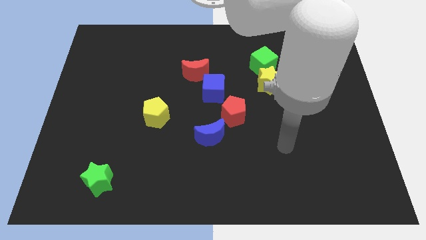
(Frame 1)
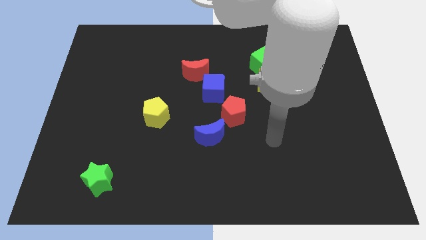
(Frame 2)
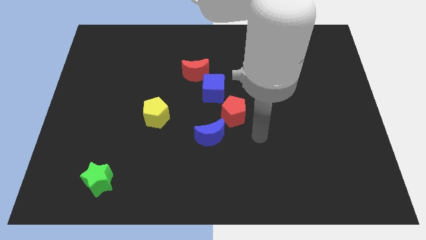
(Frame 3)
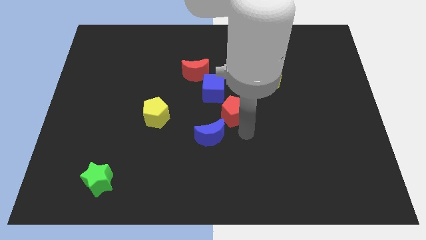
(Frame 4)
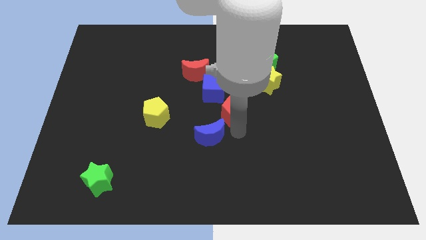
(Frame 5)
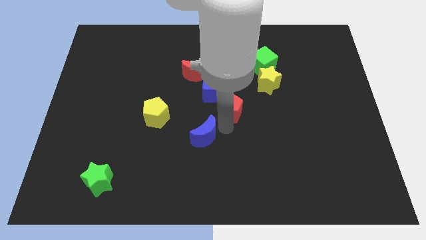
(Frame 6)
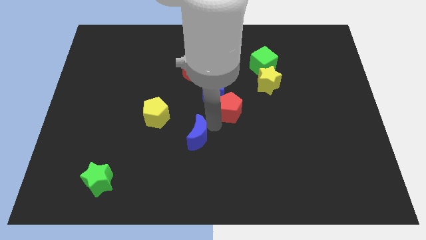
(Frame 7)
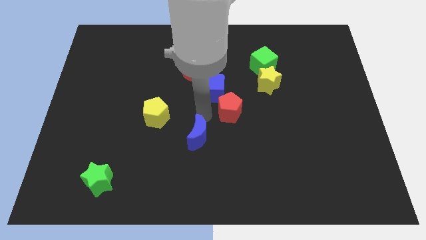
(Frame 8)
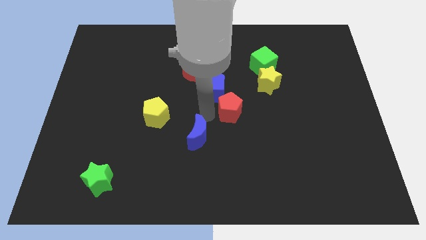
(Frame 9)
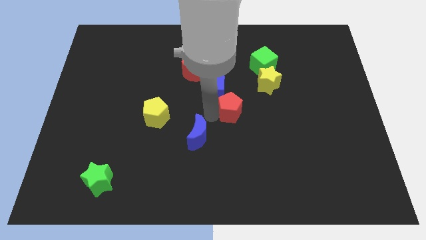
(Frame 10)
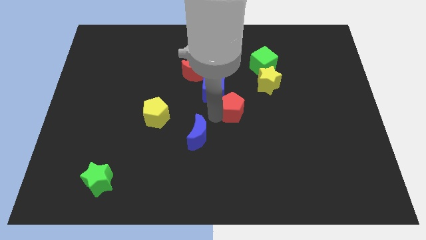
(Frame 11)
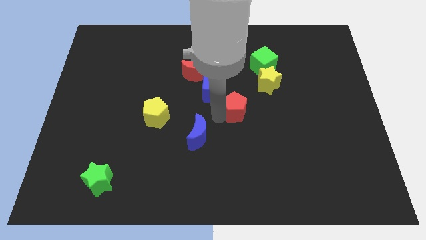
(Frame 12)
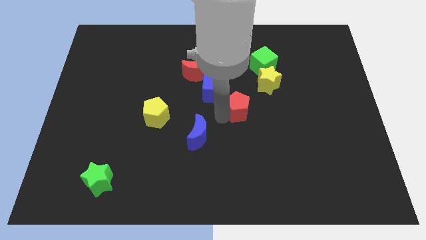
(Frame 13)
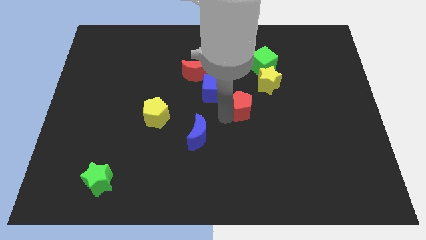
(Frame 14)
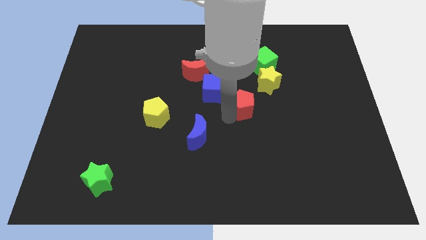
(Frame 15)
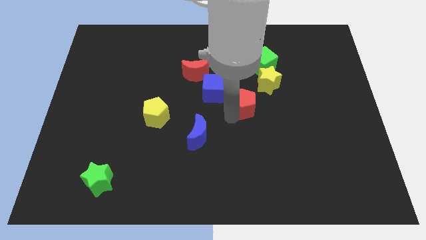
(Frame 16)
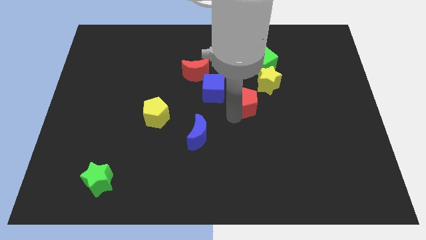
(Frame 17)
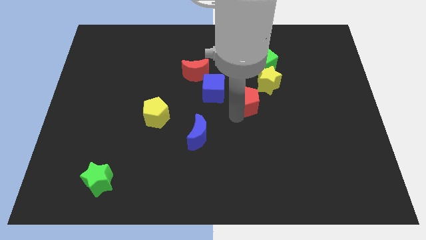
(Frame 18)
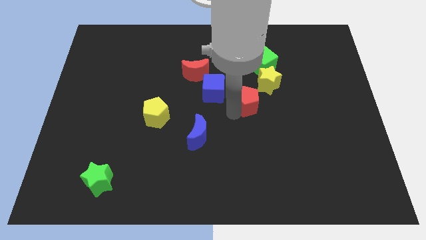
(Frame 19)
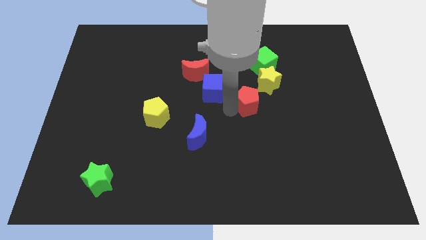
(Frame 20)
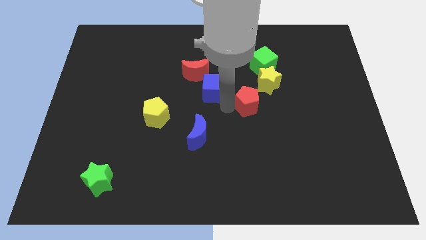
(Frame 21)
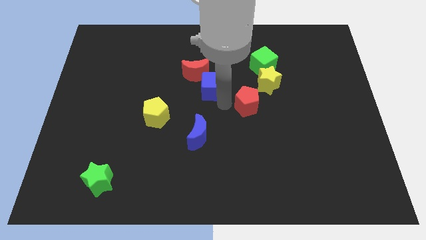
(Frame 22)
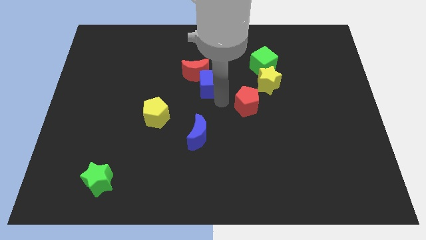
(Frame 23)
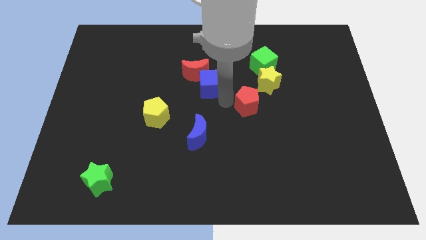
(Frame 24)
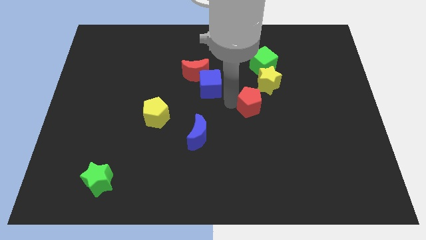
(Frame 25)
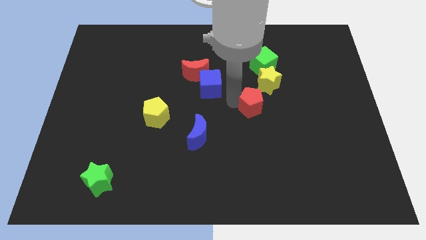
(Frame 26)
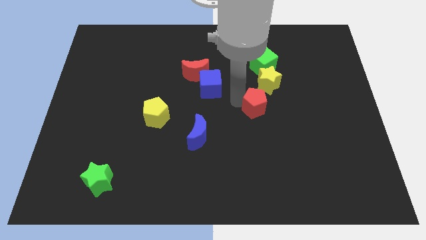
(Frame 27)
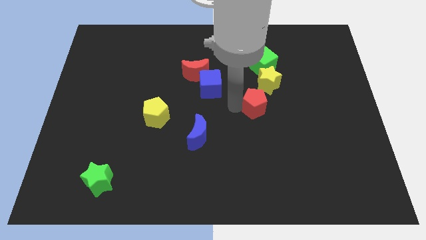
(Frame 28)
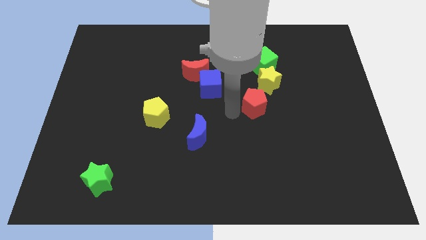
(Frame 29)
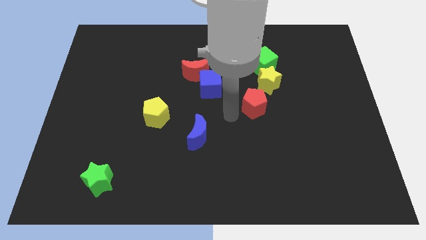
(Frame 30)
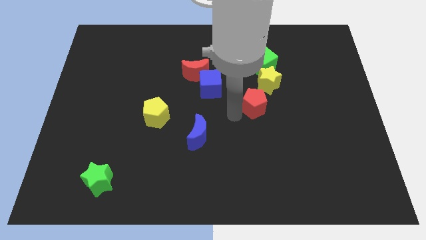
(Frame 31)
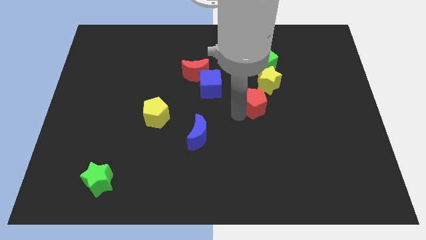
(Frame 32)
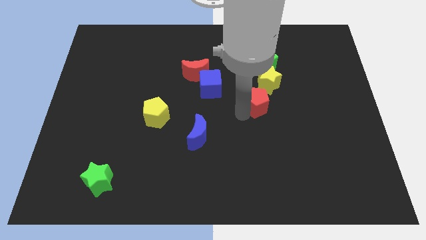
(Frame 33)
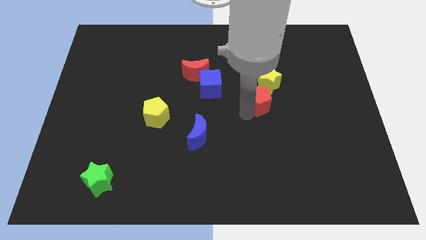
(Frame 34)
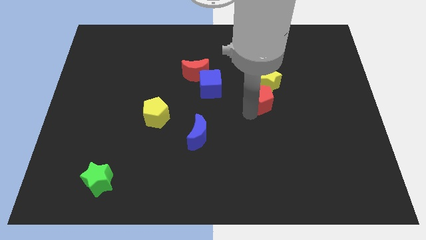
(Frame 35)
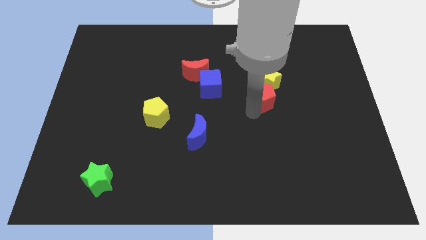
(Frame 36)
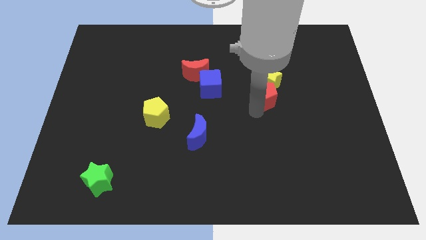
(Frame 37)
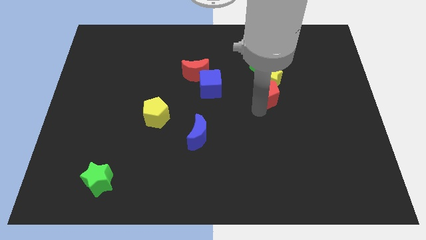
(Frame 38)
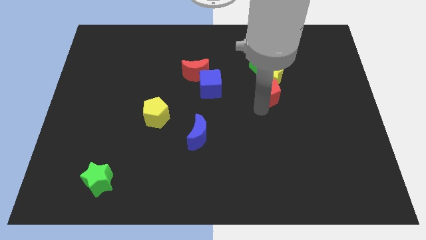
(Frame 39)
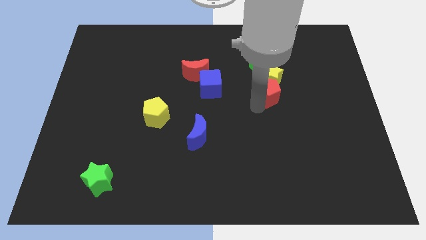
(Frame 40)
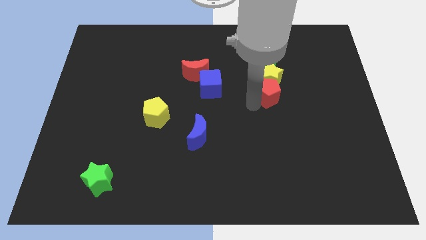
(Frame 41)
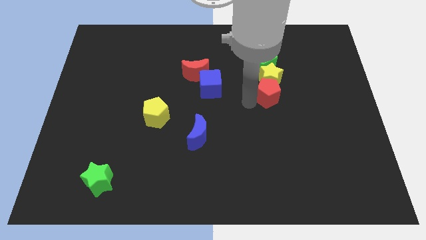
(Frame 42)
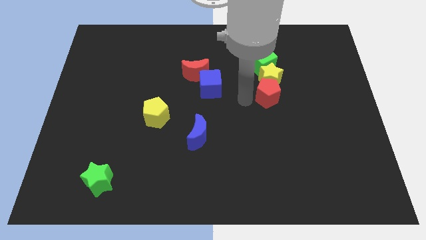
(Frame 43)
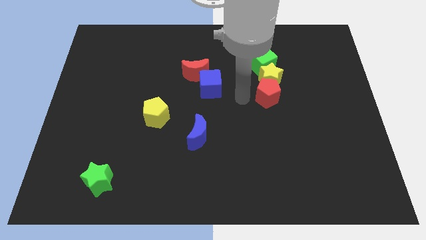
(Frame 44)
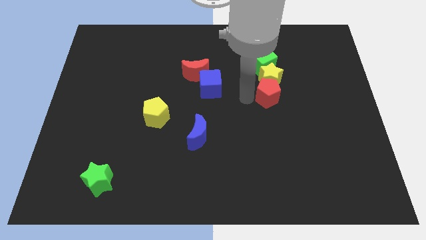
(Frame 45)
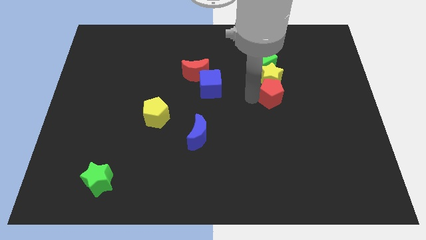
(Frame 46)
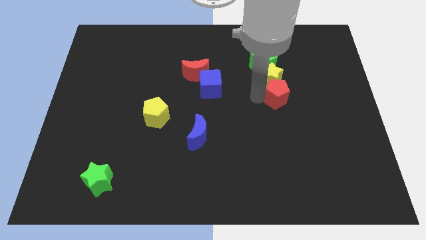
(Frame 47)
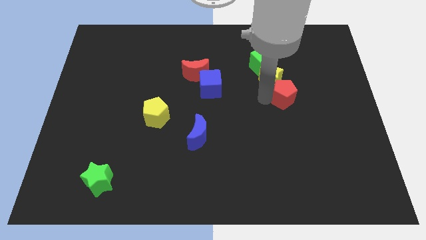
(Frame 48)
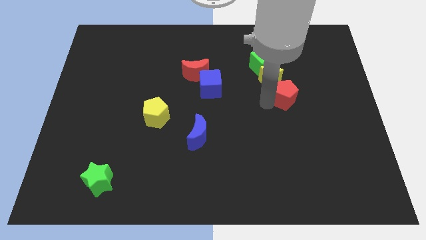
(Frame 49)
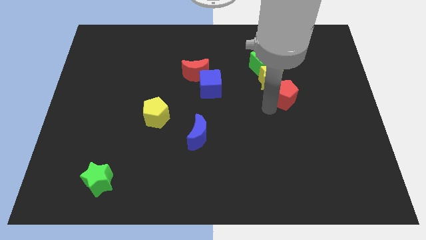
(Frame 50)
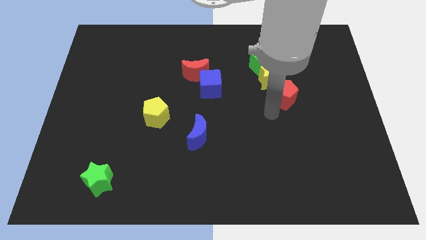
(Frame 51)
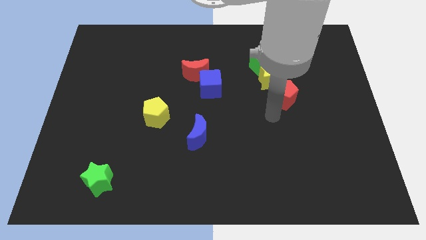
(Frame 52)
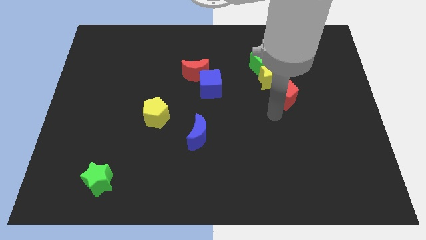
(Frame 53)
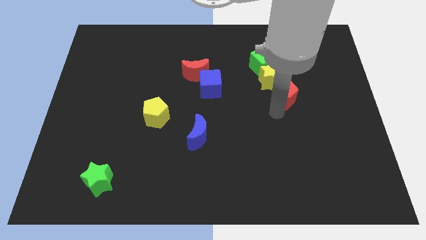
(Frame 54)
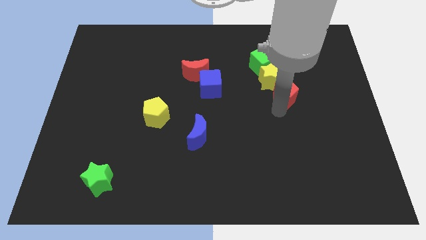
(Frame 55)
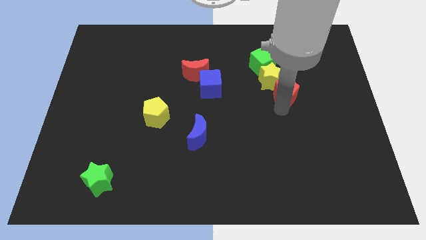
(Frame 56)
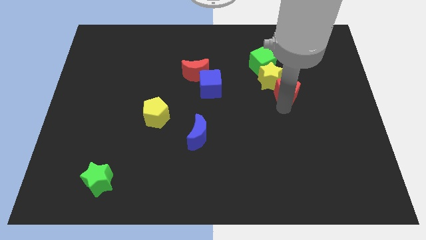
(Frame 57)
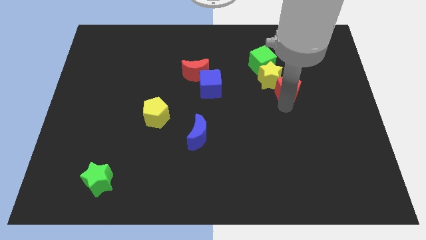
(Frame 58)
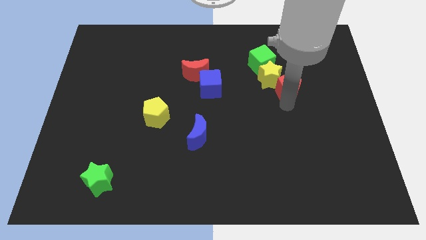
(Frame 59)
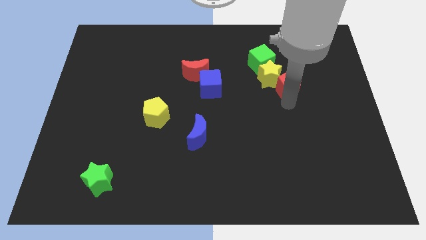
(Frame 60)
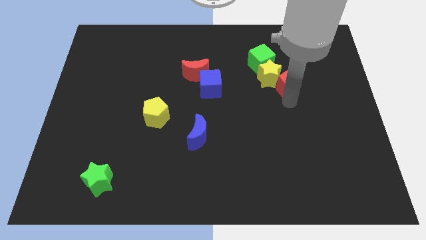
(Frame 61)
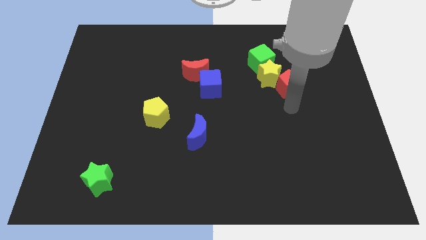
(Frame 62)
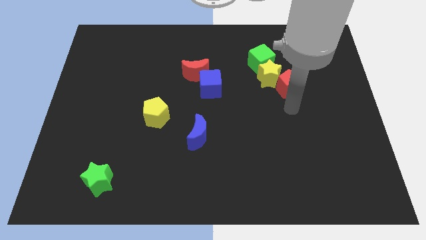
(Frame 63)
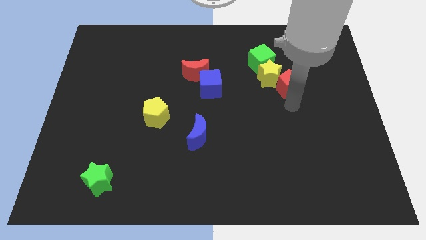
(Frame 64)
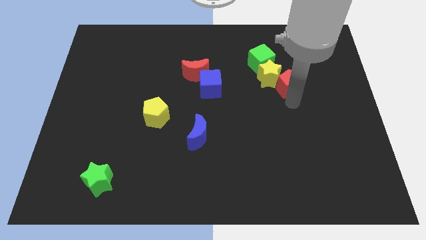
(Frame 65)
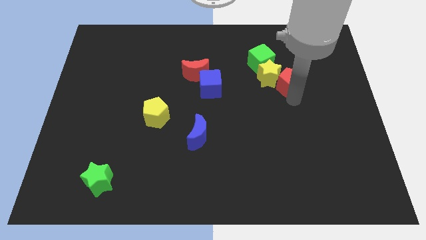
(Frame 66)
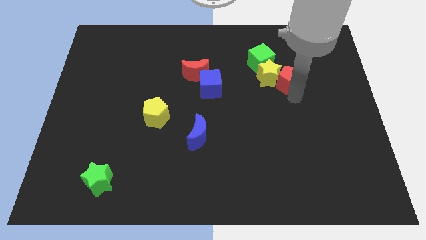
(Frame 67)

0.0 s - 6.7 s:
move the red pentagon to the top right side of the yellow star
